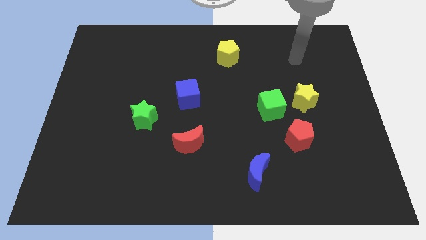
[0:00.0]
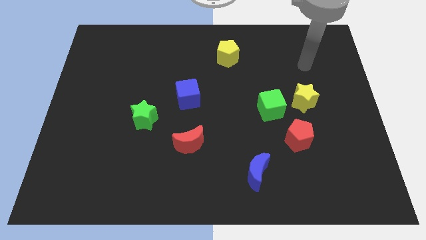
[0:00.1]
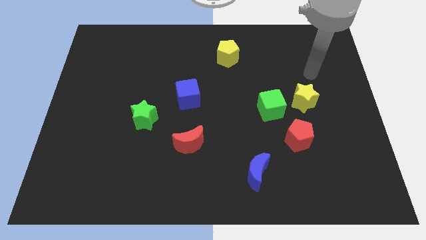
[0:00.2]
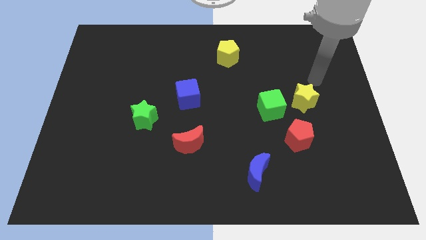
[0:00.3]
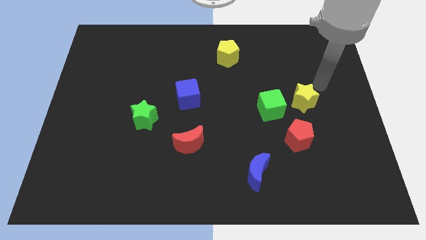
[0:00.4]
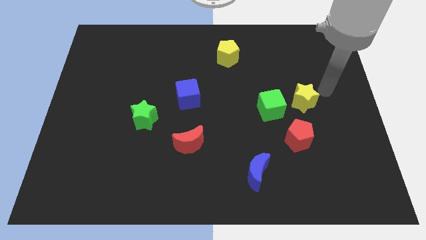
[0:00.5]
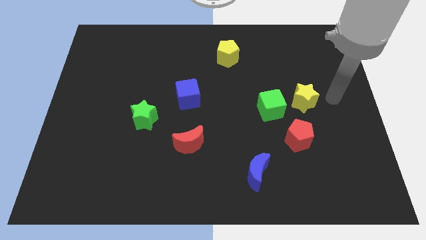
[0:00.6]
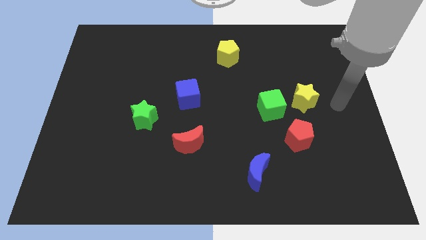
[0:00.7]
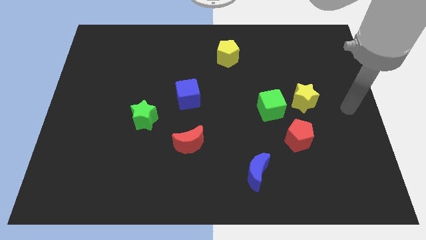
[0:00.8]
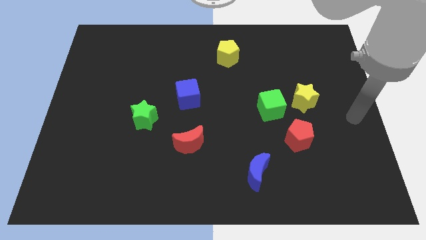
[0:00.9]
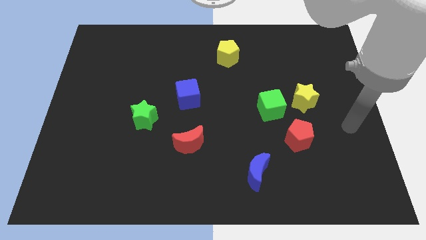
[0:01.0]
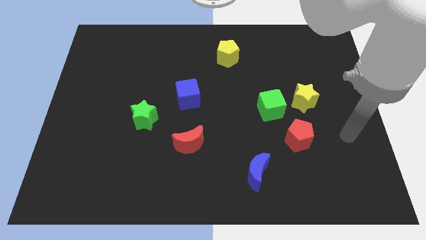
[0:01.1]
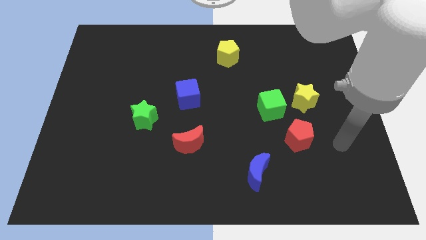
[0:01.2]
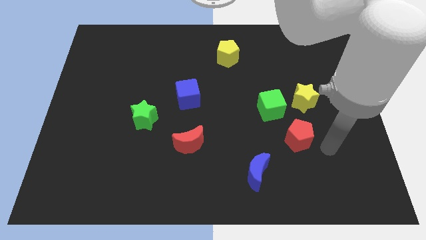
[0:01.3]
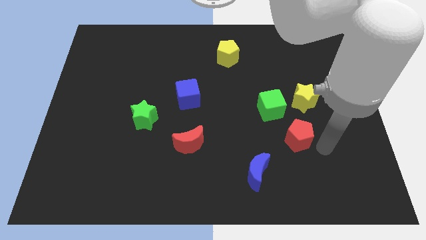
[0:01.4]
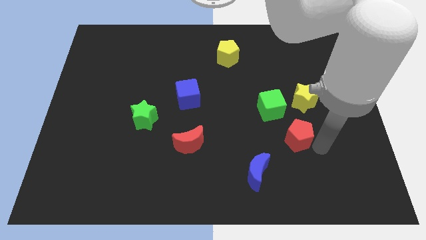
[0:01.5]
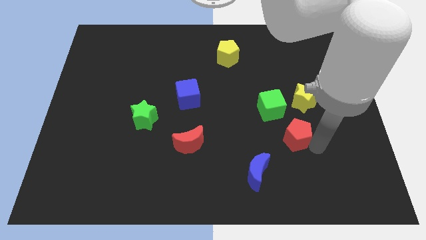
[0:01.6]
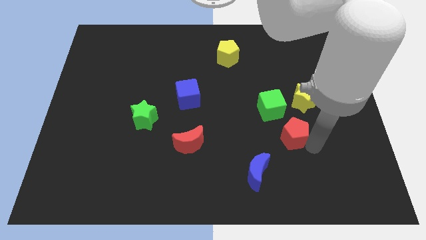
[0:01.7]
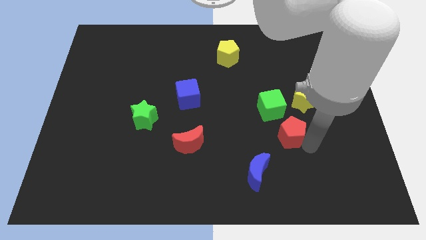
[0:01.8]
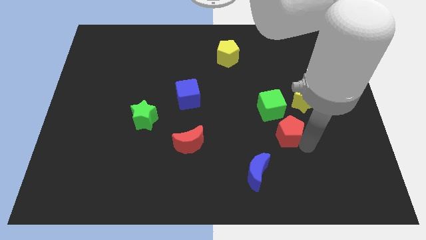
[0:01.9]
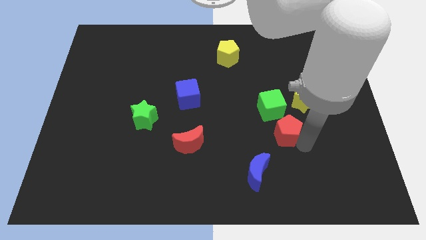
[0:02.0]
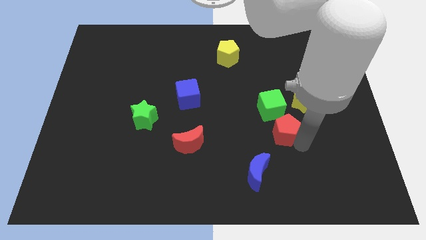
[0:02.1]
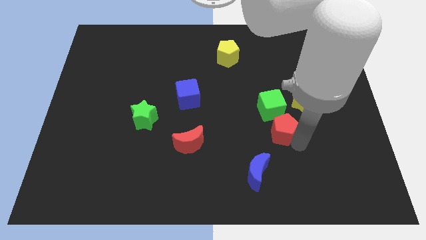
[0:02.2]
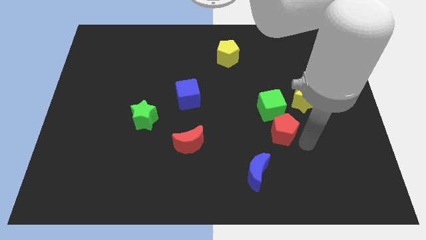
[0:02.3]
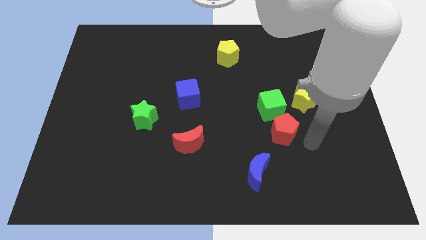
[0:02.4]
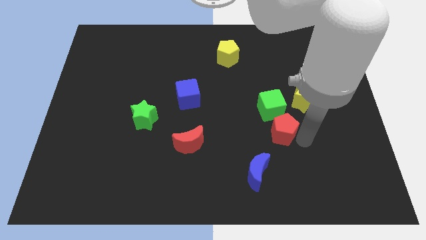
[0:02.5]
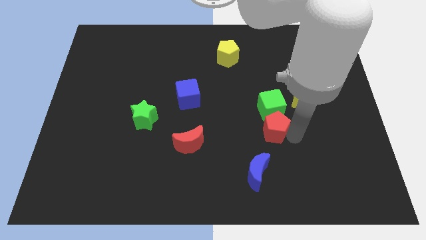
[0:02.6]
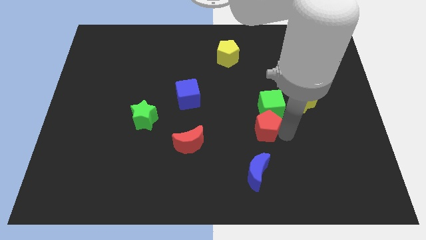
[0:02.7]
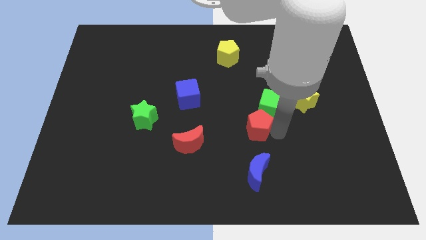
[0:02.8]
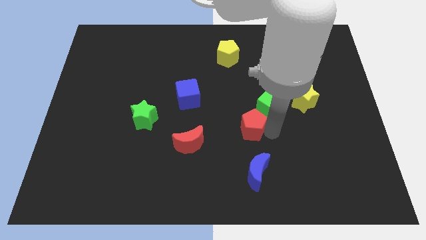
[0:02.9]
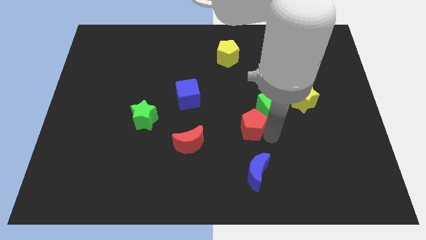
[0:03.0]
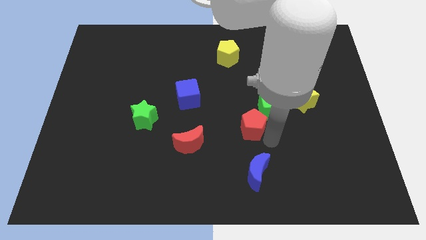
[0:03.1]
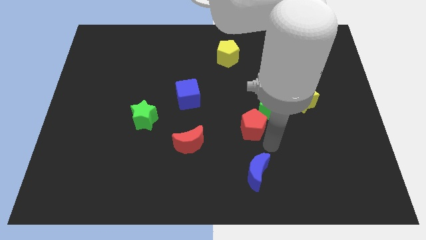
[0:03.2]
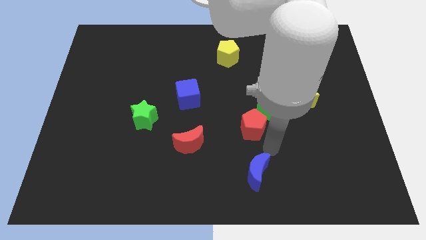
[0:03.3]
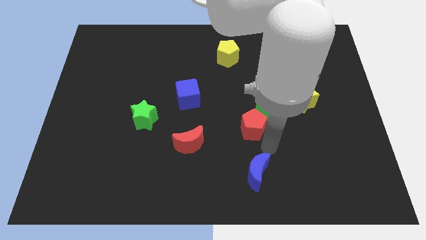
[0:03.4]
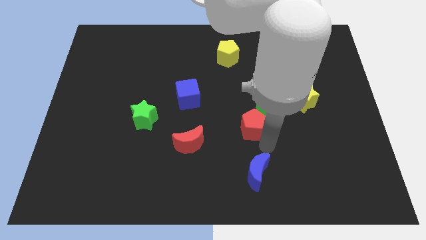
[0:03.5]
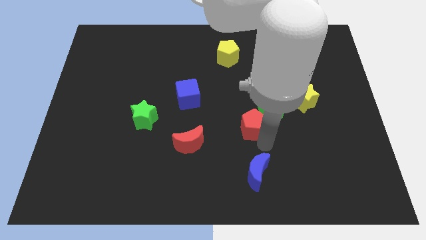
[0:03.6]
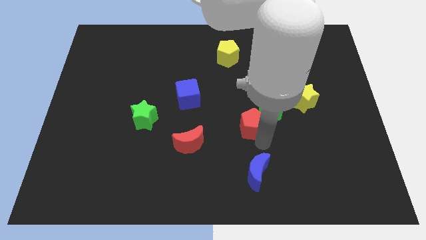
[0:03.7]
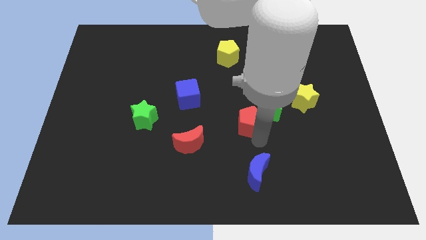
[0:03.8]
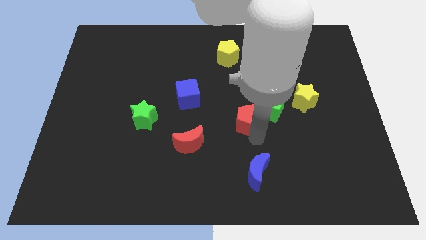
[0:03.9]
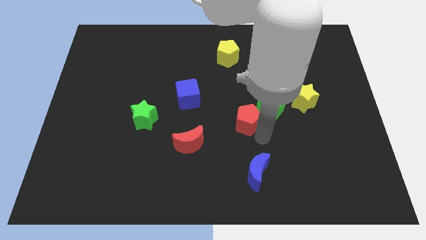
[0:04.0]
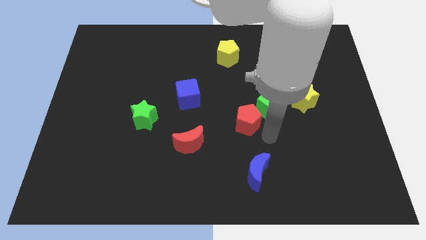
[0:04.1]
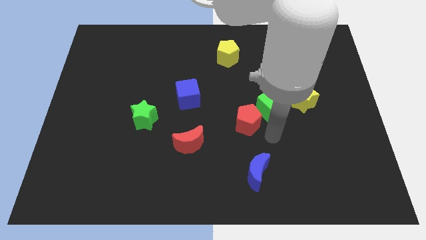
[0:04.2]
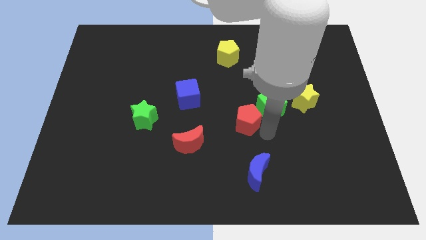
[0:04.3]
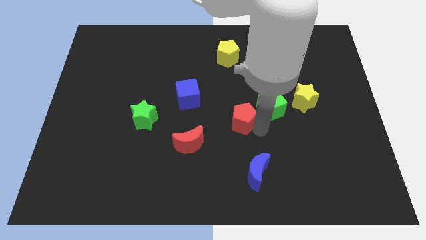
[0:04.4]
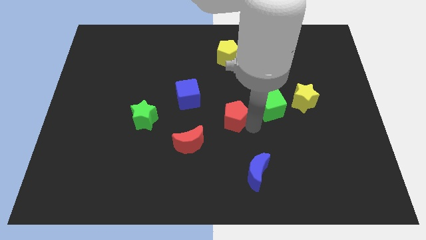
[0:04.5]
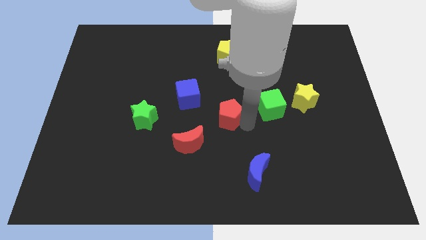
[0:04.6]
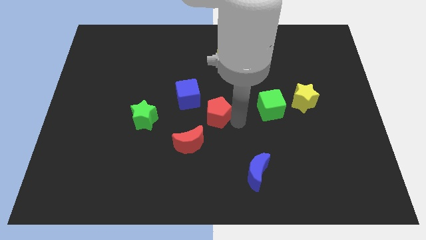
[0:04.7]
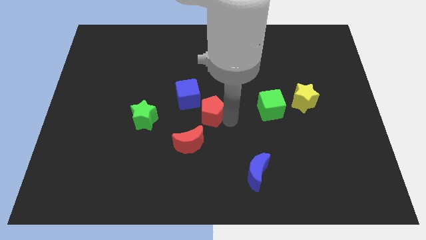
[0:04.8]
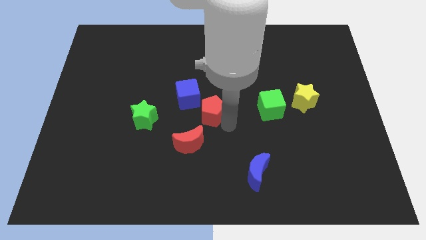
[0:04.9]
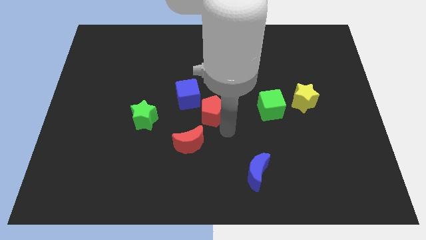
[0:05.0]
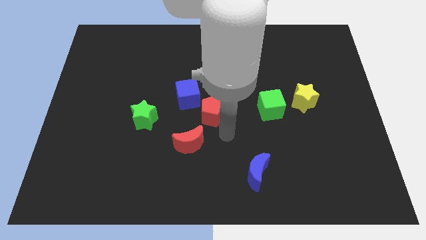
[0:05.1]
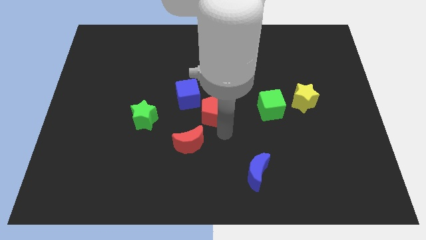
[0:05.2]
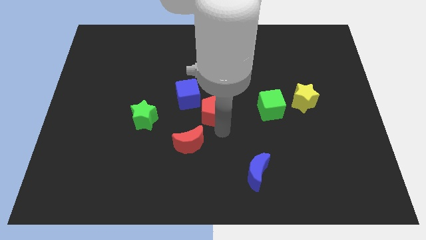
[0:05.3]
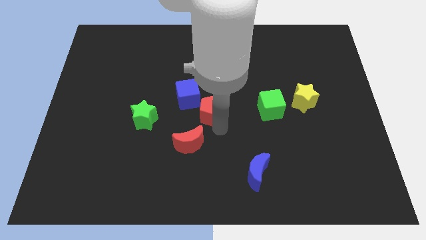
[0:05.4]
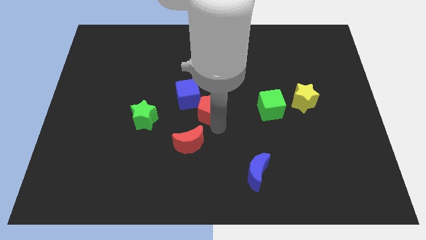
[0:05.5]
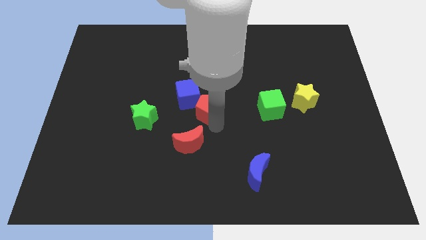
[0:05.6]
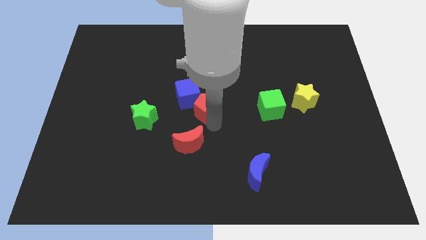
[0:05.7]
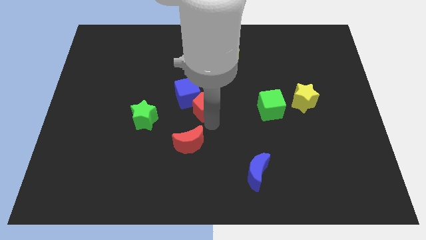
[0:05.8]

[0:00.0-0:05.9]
put the red pentagon towards the blue cube

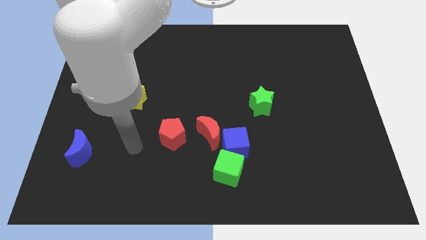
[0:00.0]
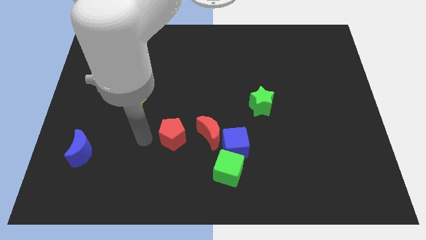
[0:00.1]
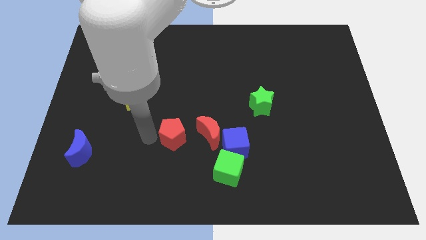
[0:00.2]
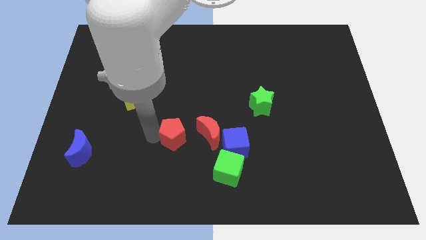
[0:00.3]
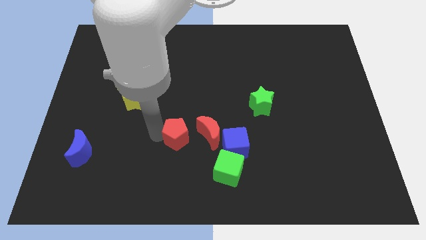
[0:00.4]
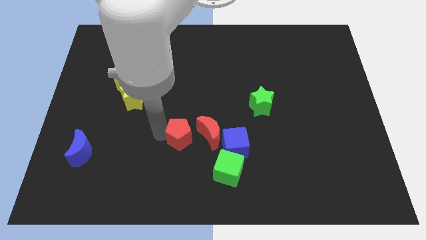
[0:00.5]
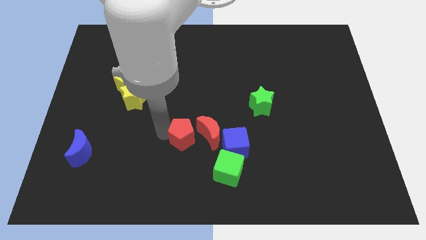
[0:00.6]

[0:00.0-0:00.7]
move the red pentagon close to the red moon

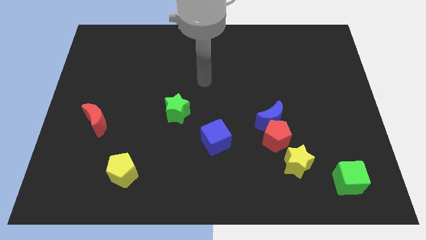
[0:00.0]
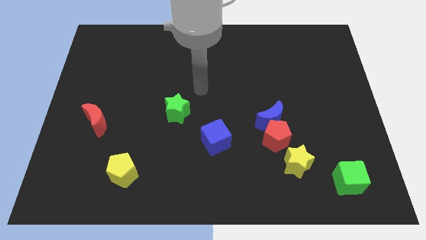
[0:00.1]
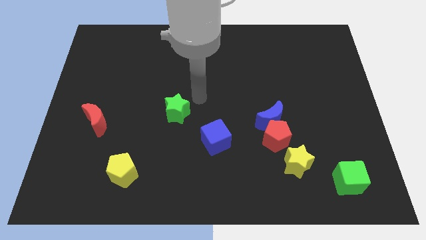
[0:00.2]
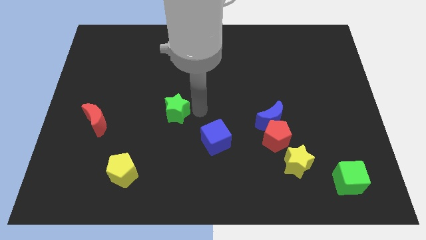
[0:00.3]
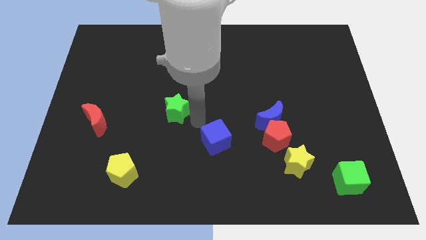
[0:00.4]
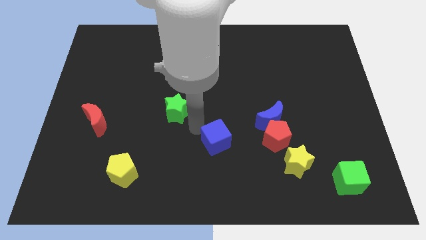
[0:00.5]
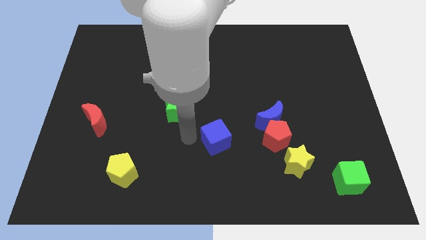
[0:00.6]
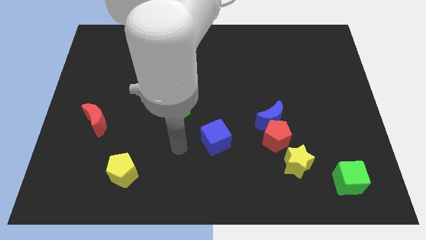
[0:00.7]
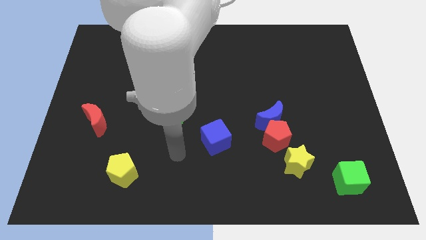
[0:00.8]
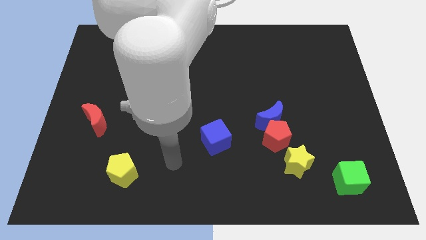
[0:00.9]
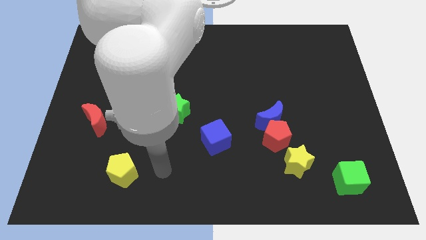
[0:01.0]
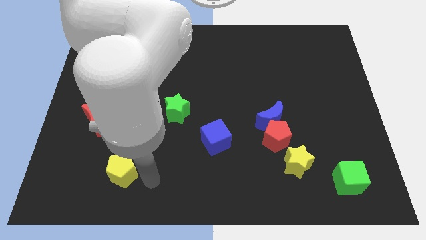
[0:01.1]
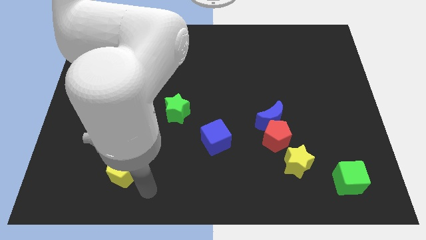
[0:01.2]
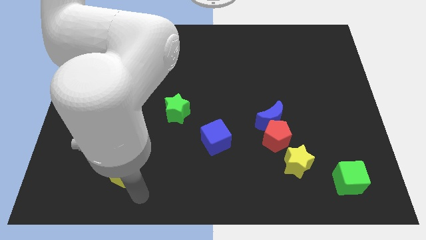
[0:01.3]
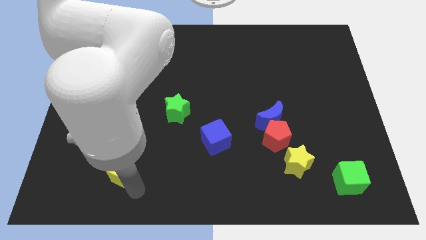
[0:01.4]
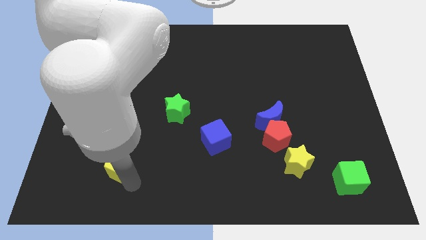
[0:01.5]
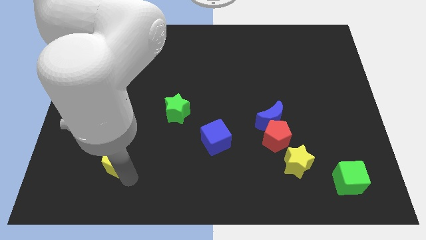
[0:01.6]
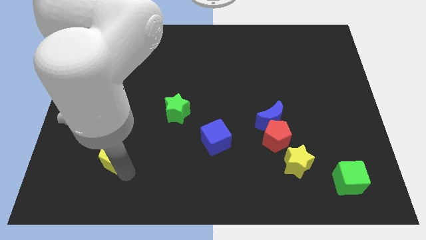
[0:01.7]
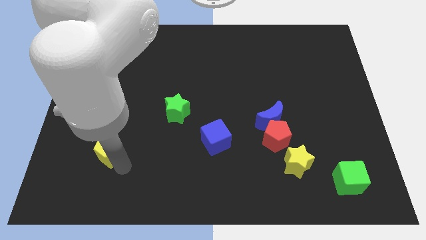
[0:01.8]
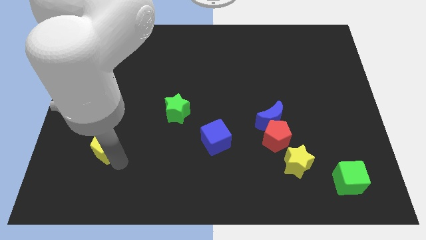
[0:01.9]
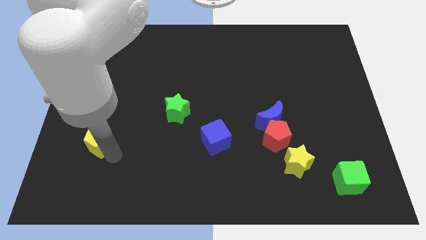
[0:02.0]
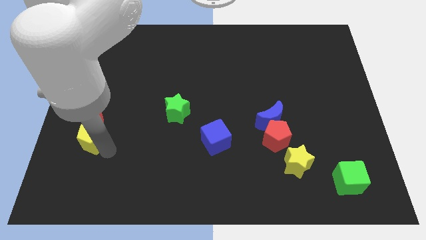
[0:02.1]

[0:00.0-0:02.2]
put the yellow pentagon close to the red moon
